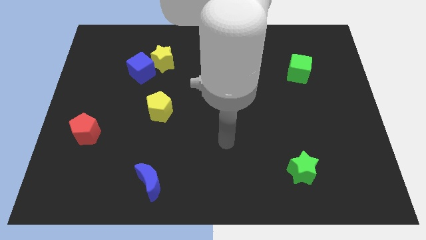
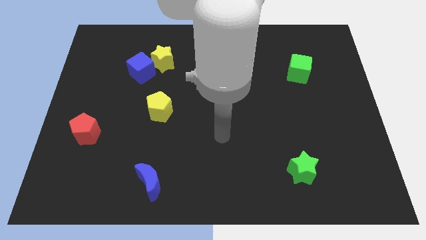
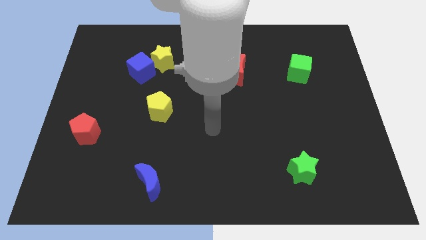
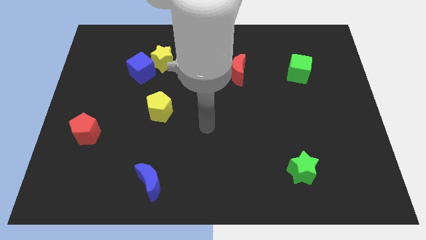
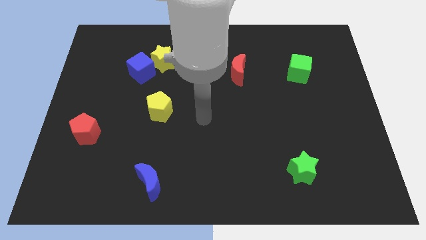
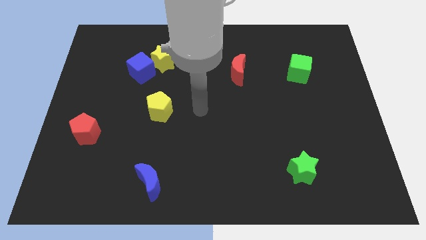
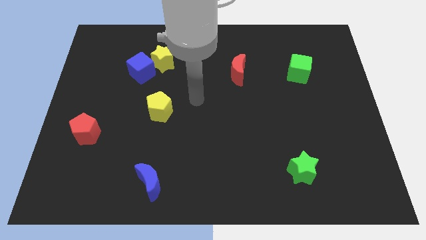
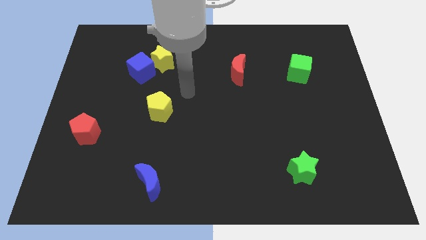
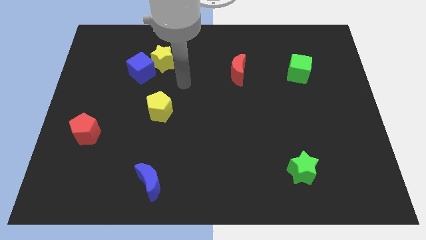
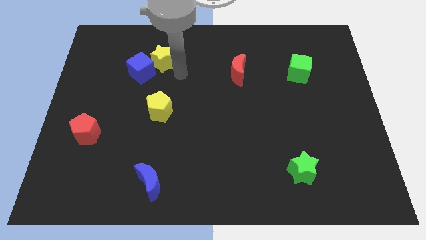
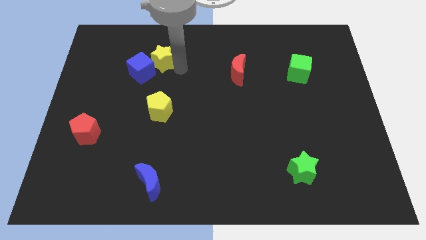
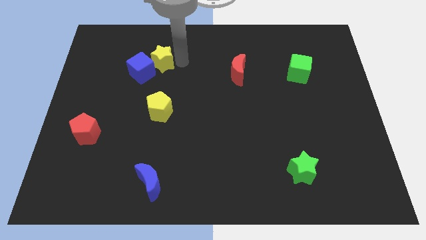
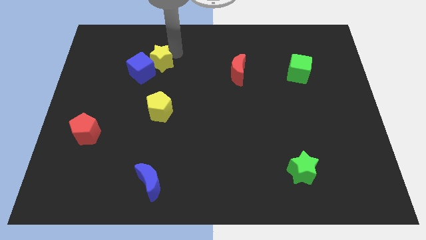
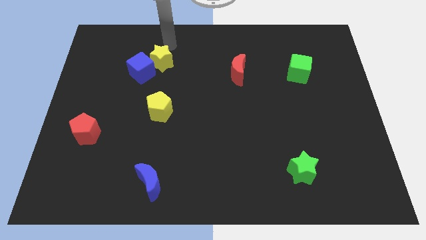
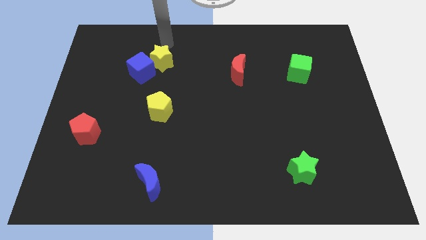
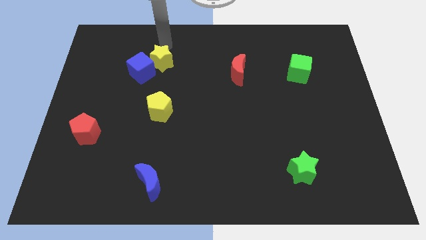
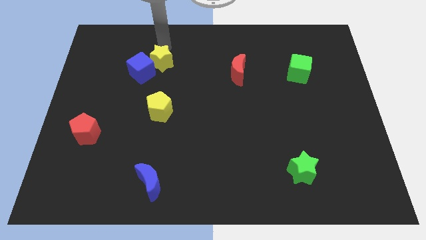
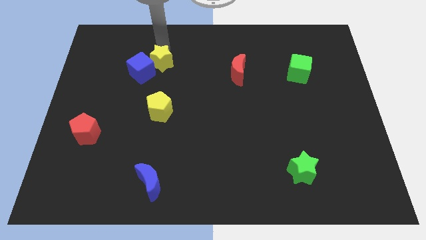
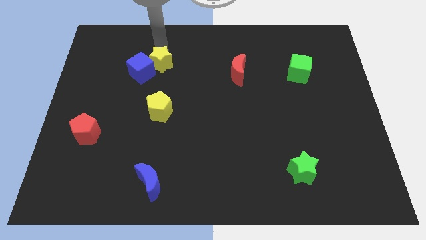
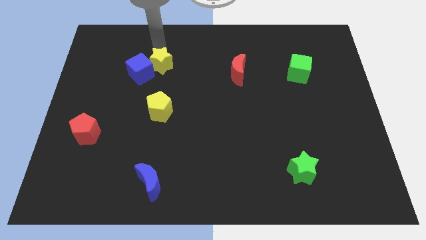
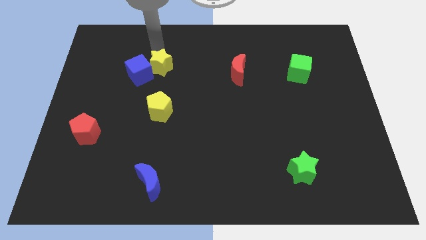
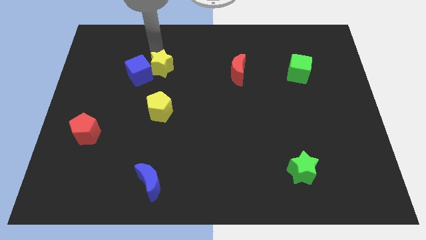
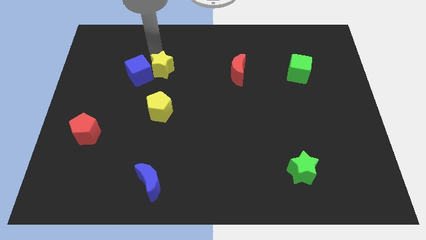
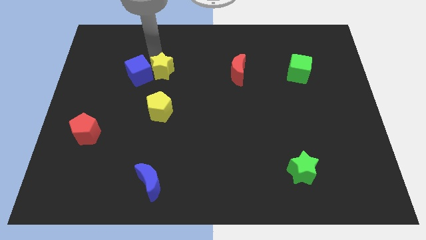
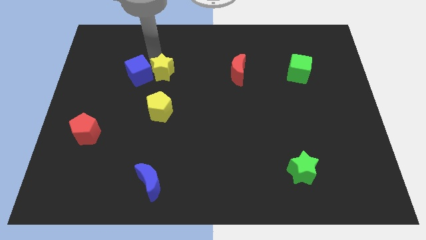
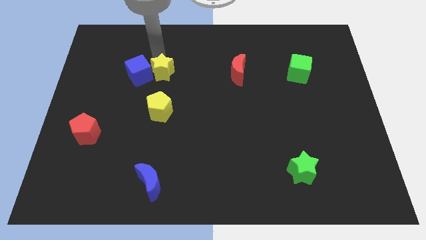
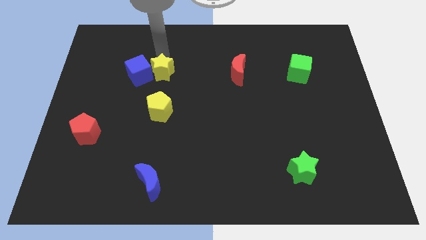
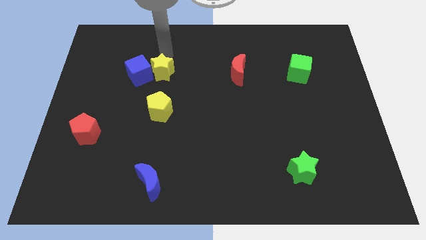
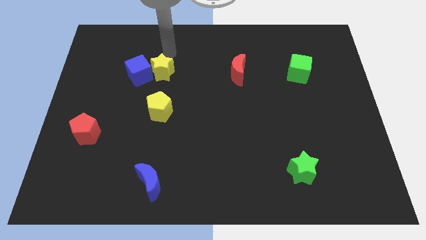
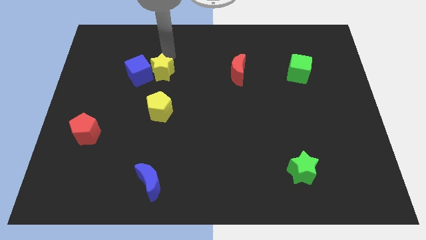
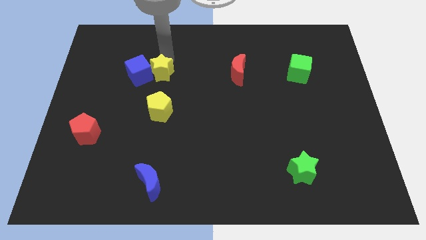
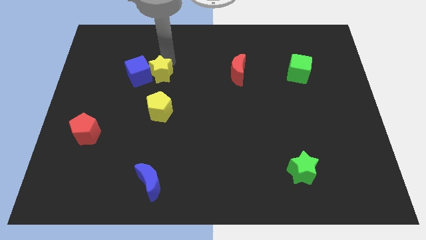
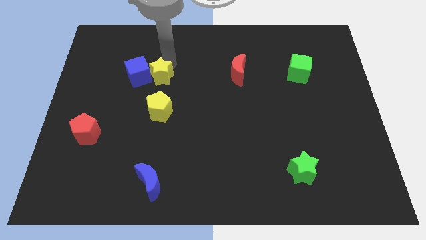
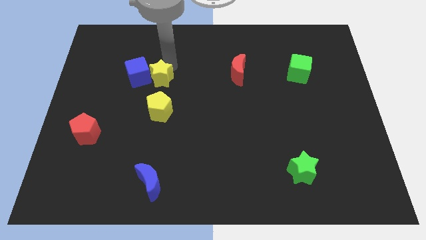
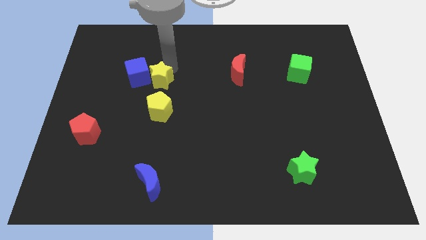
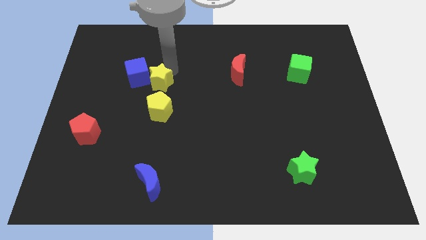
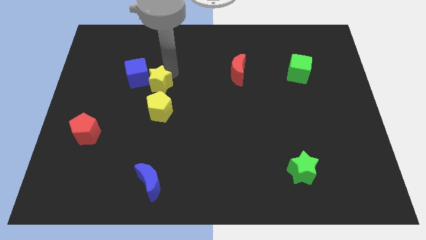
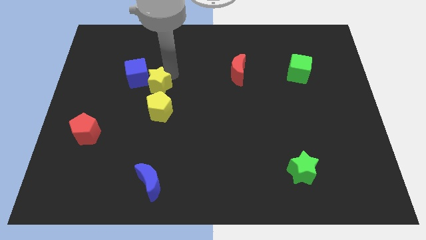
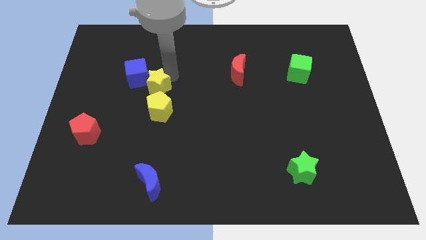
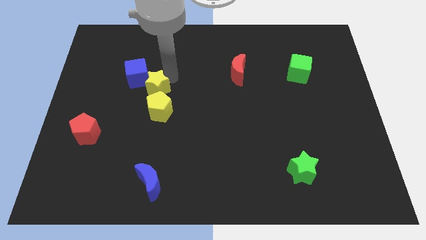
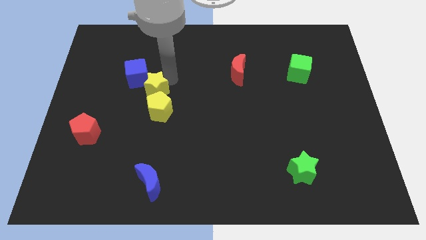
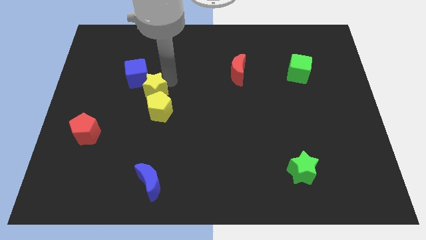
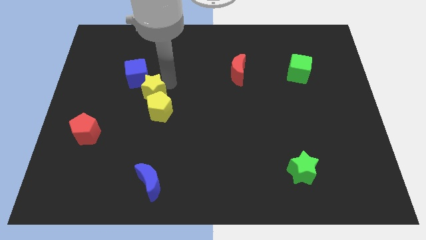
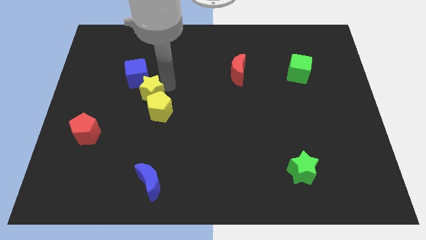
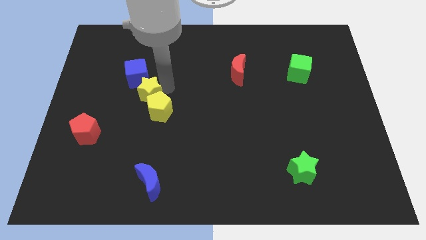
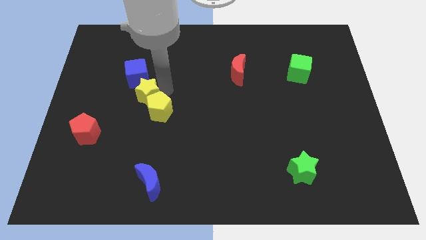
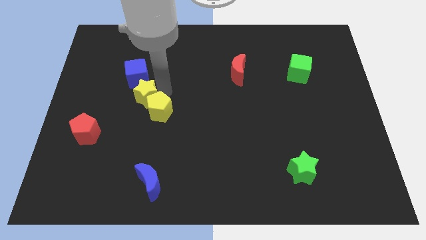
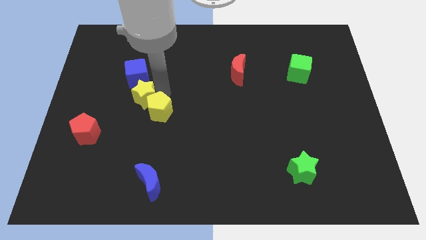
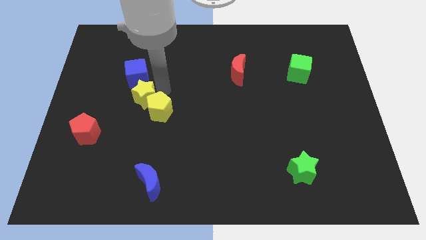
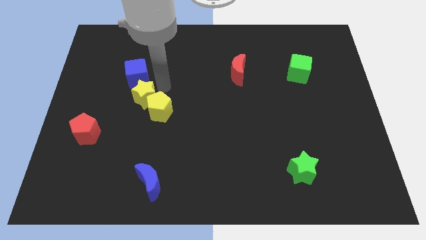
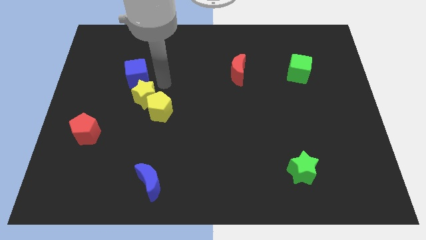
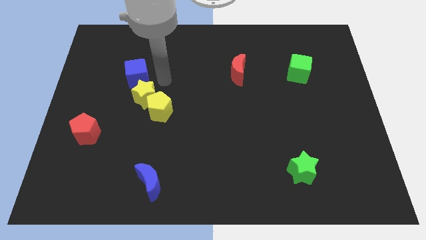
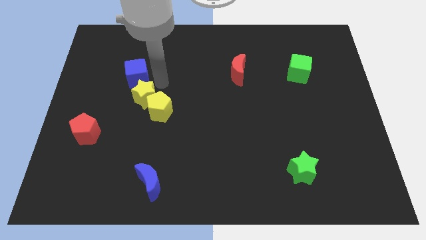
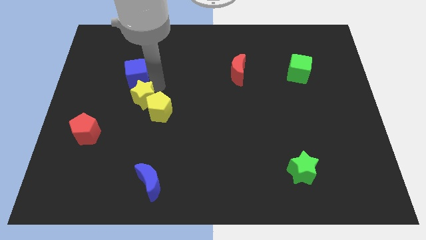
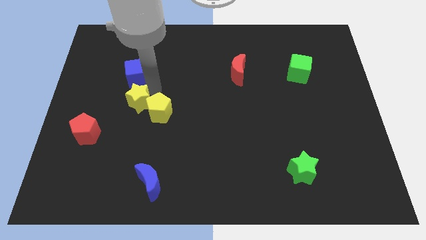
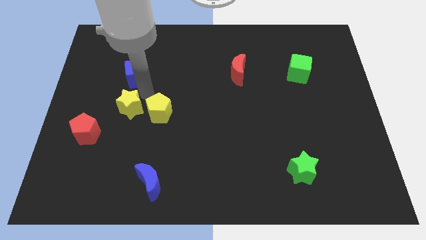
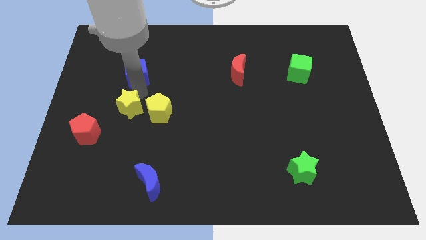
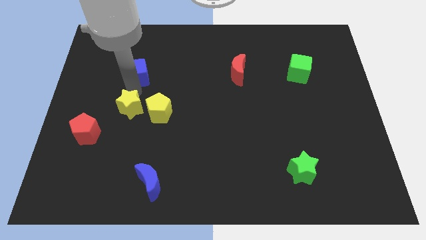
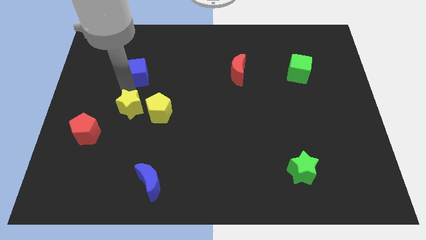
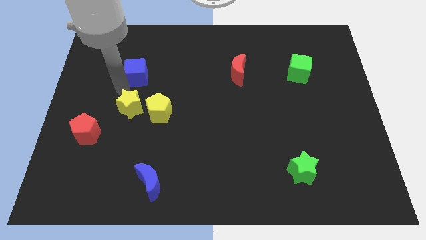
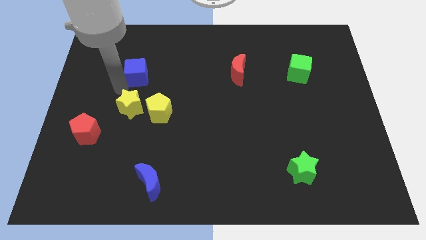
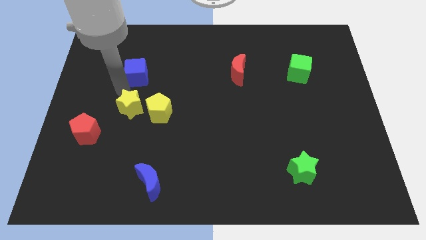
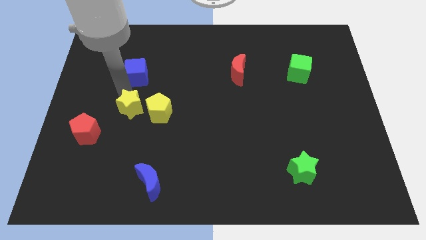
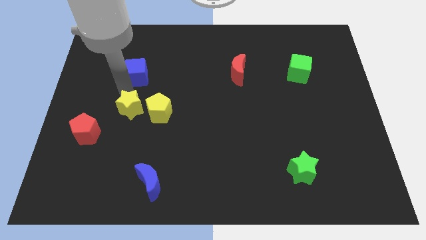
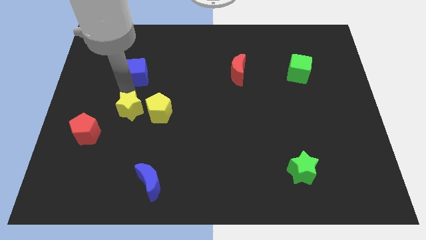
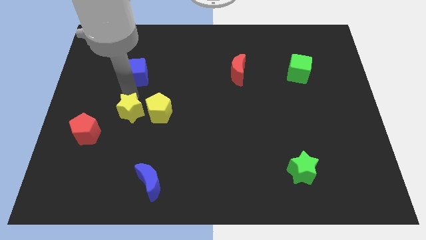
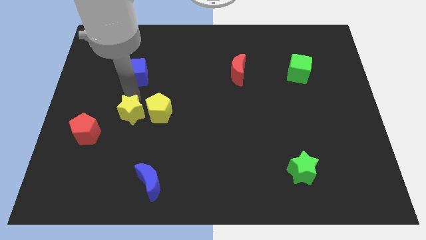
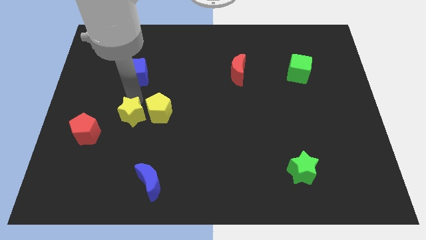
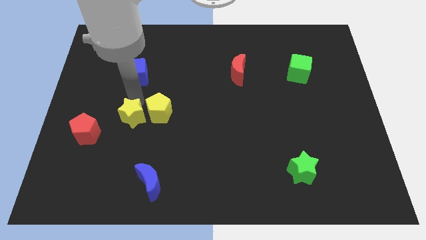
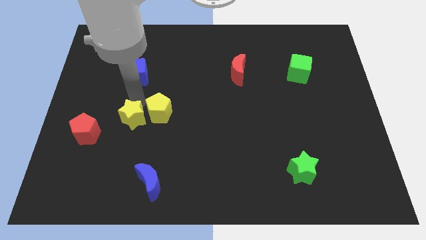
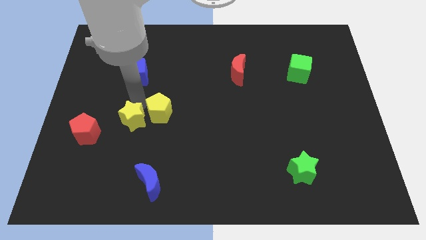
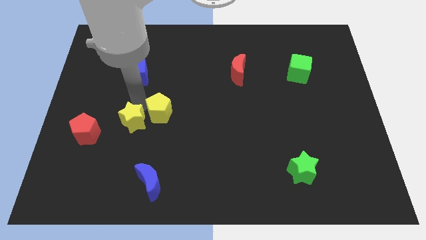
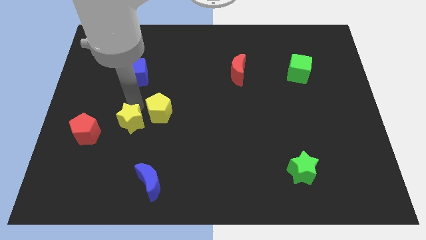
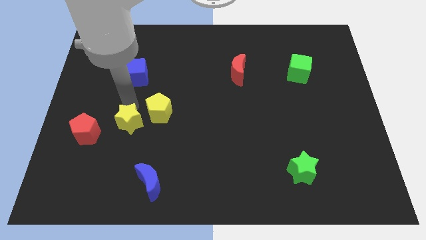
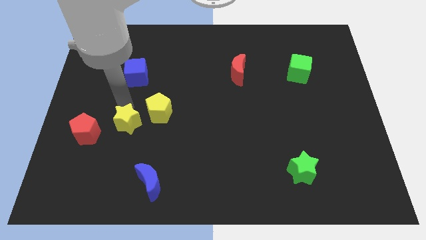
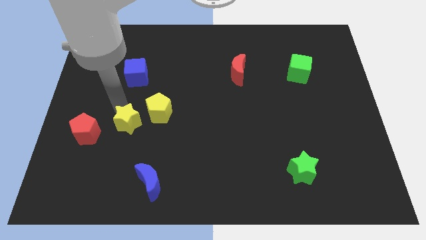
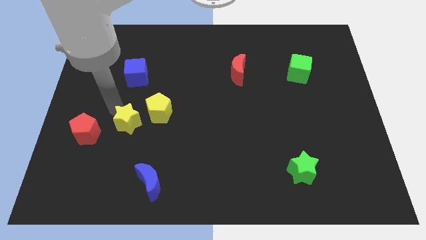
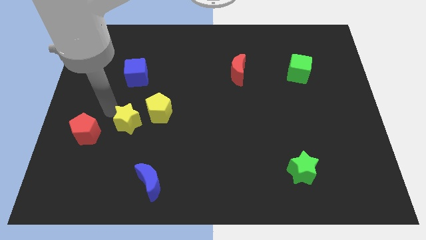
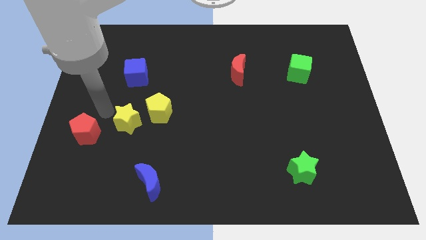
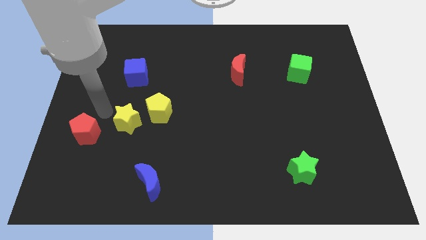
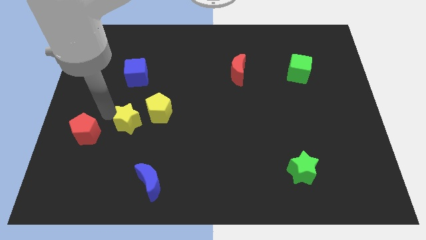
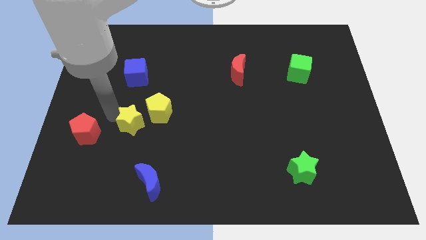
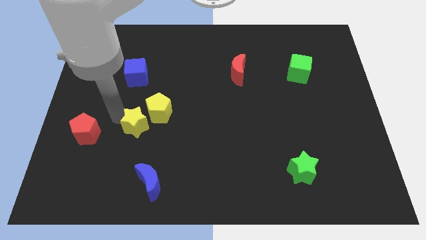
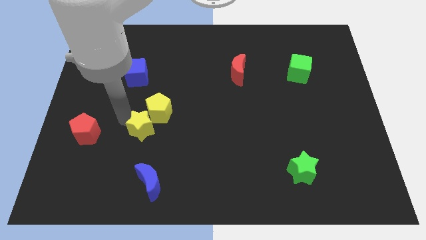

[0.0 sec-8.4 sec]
move the yellow star above the blue moon
